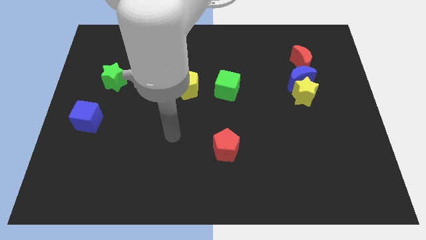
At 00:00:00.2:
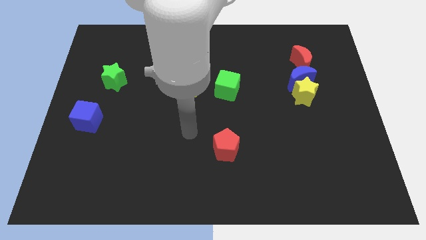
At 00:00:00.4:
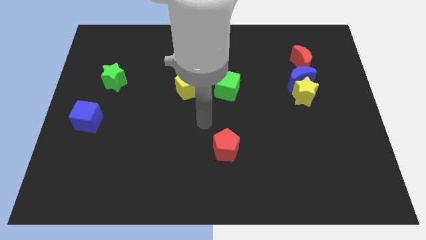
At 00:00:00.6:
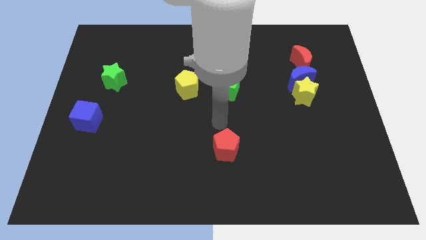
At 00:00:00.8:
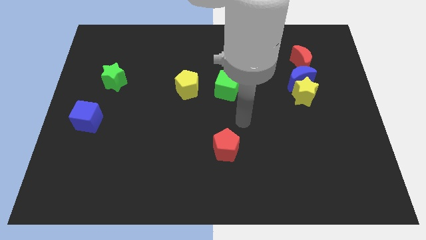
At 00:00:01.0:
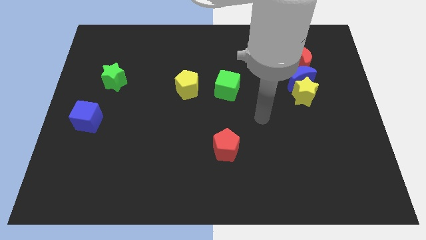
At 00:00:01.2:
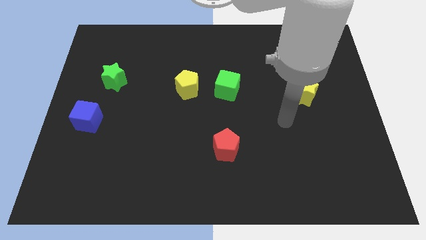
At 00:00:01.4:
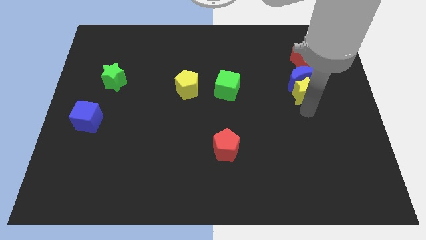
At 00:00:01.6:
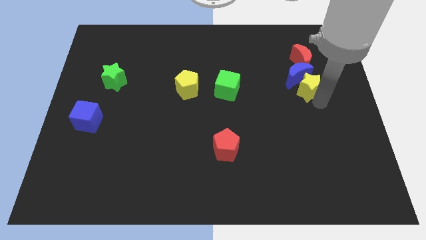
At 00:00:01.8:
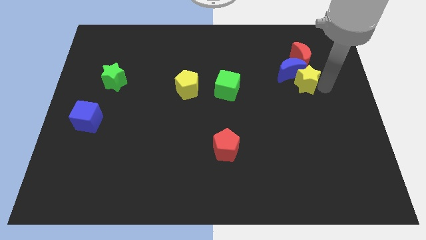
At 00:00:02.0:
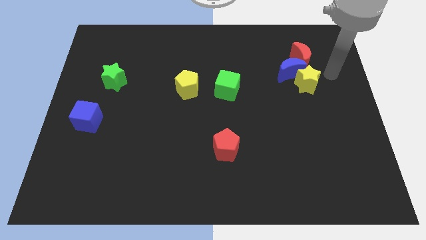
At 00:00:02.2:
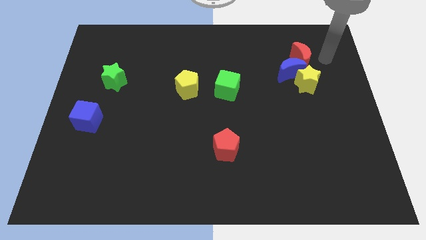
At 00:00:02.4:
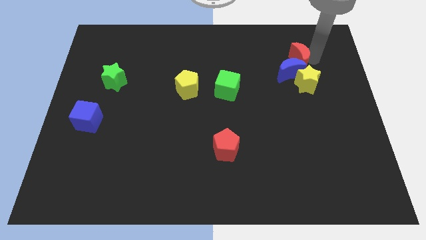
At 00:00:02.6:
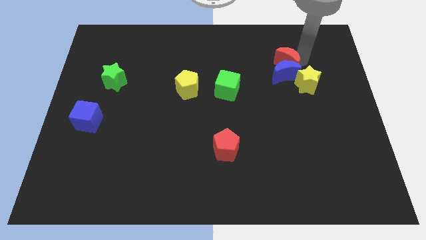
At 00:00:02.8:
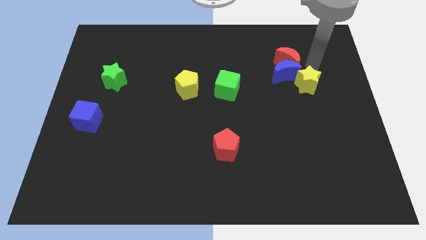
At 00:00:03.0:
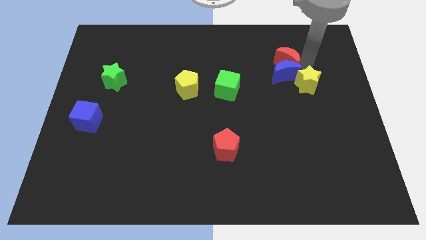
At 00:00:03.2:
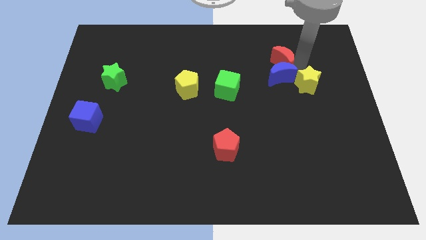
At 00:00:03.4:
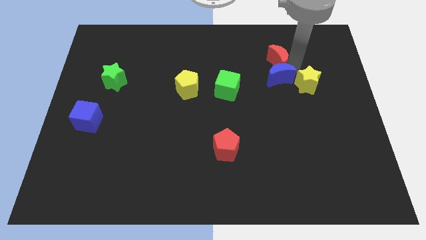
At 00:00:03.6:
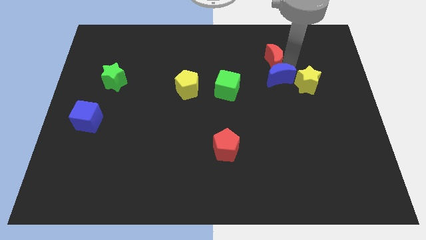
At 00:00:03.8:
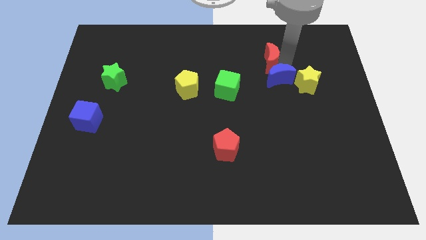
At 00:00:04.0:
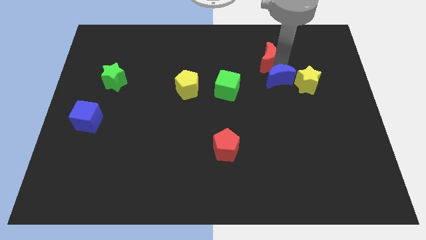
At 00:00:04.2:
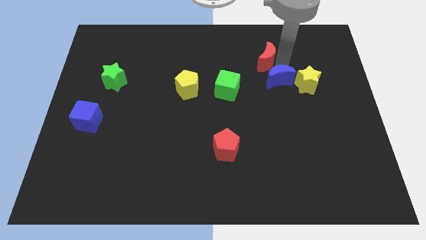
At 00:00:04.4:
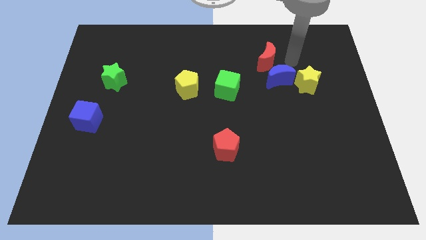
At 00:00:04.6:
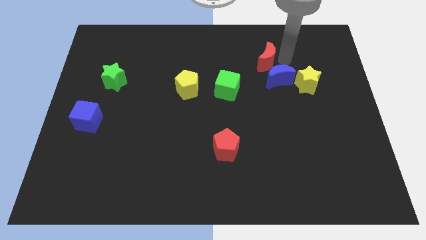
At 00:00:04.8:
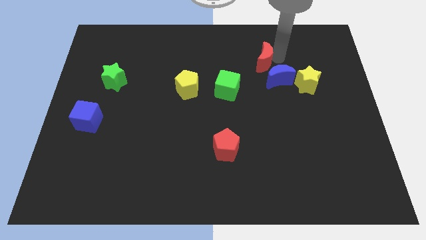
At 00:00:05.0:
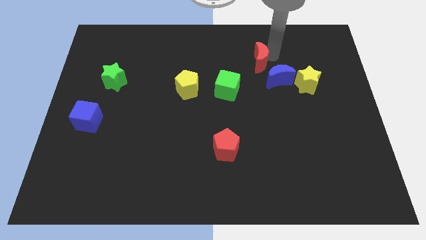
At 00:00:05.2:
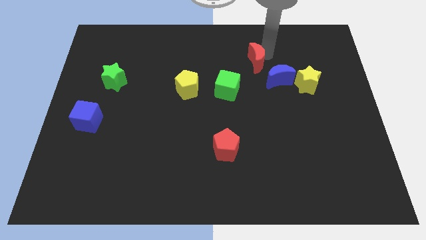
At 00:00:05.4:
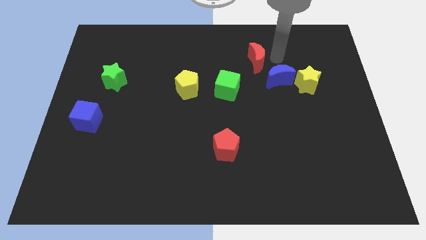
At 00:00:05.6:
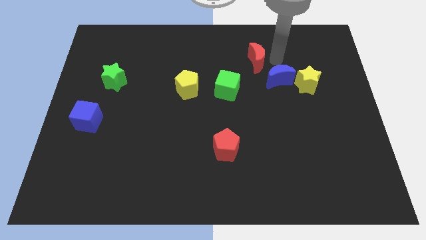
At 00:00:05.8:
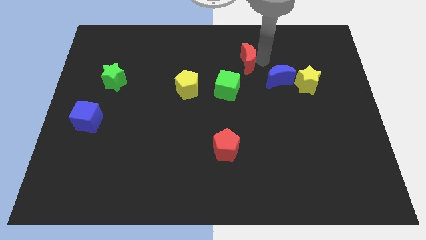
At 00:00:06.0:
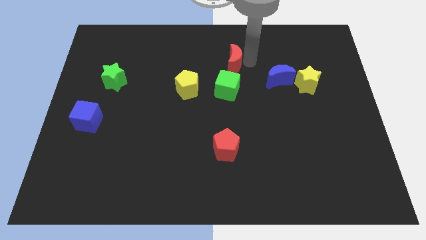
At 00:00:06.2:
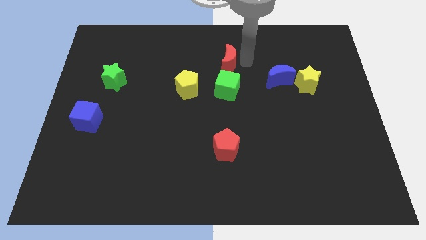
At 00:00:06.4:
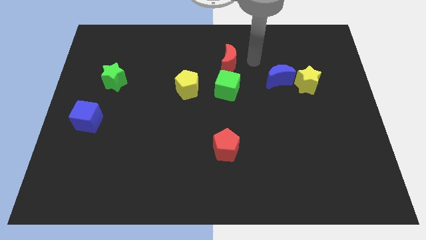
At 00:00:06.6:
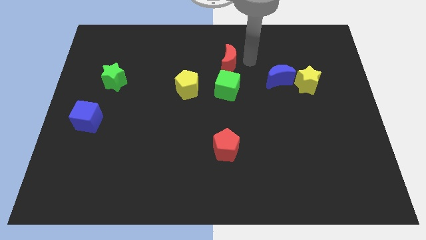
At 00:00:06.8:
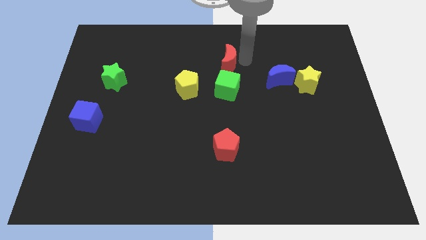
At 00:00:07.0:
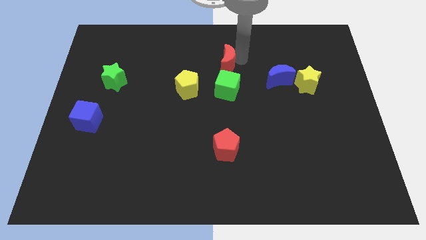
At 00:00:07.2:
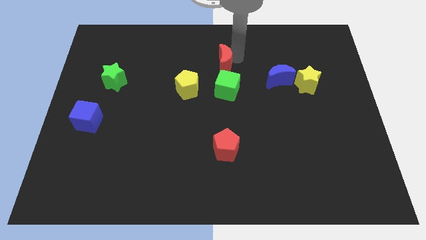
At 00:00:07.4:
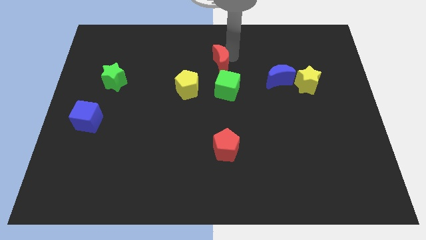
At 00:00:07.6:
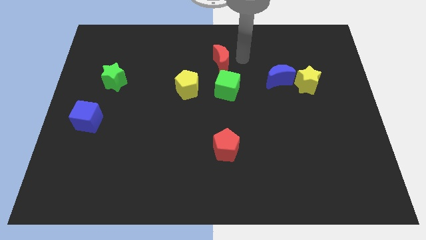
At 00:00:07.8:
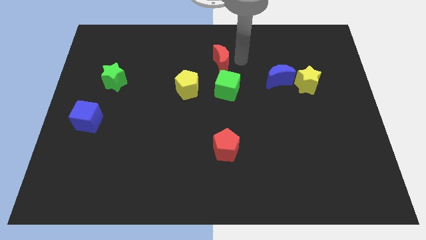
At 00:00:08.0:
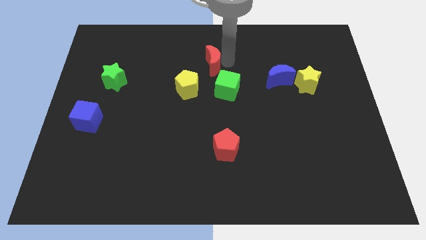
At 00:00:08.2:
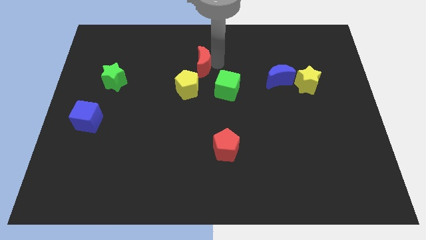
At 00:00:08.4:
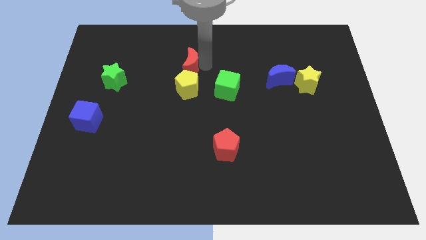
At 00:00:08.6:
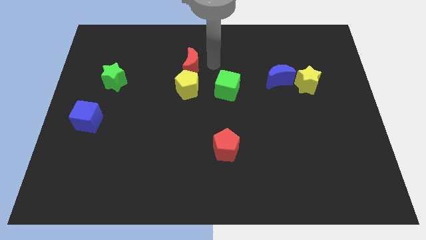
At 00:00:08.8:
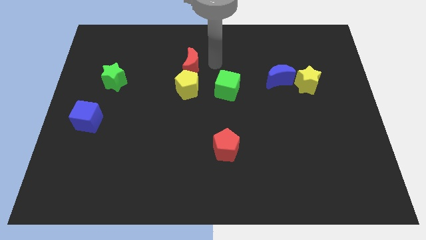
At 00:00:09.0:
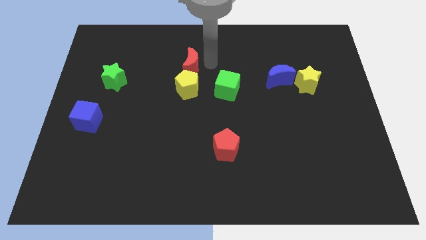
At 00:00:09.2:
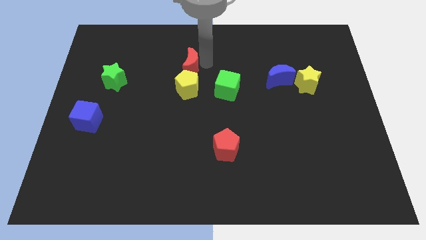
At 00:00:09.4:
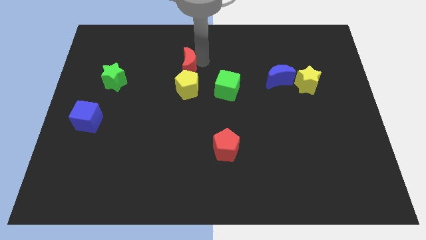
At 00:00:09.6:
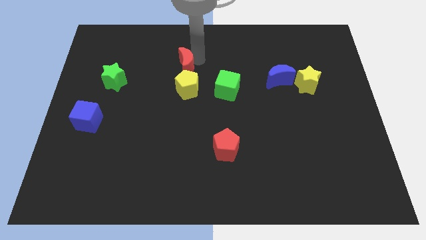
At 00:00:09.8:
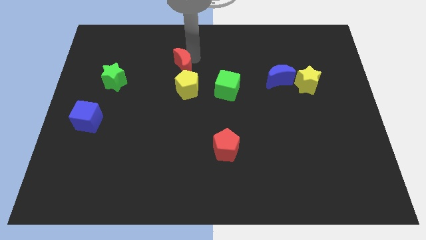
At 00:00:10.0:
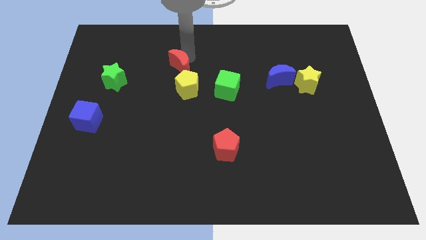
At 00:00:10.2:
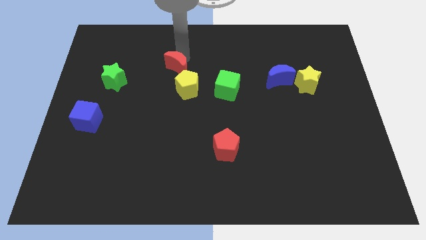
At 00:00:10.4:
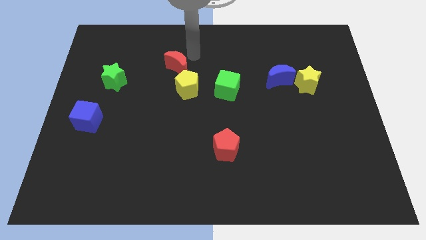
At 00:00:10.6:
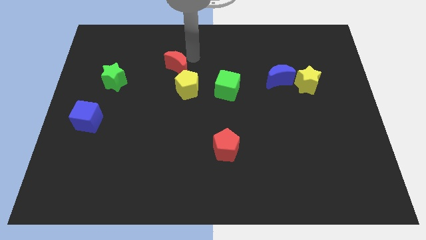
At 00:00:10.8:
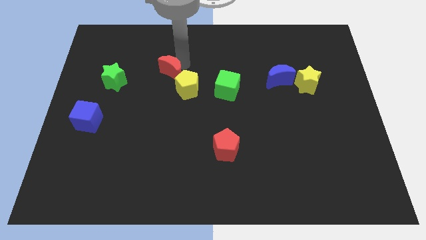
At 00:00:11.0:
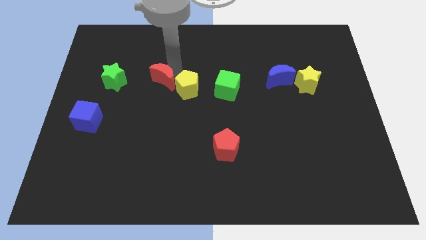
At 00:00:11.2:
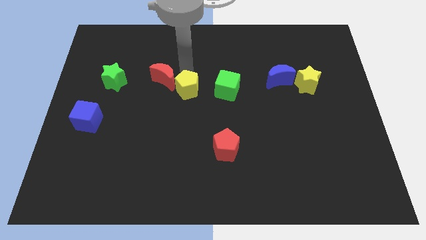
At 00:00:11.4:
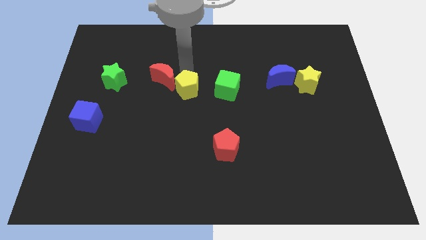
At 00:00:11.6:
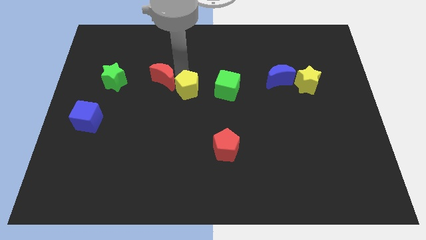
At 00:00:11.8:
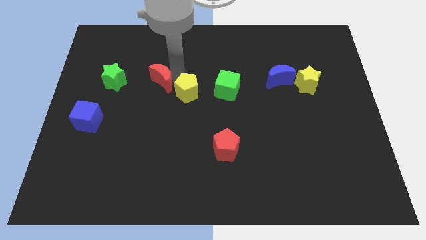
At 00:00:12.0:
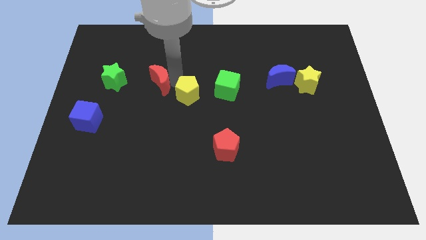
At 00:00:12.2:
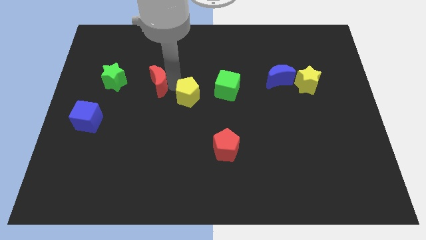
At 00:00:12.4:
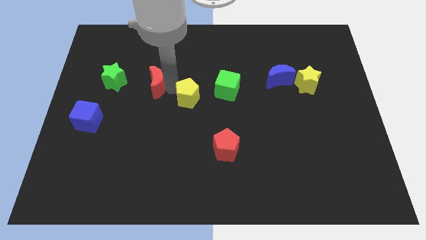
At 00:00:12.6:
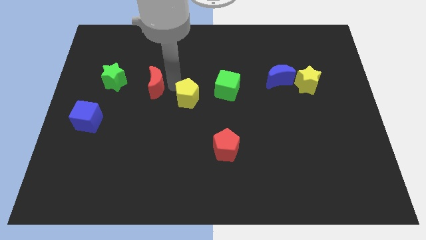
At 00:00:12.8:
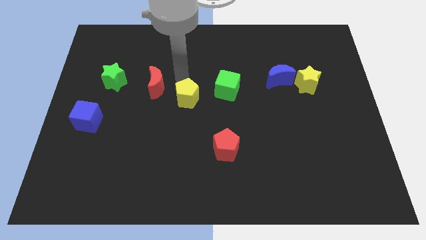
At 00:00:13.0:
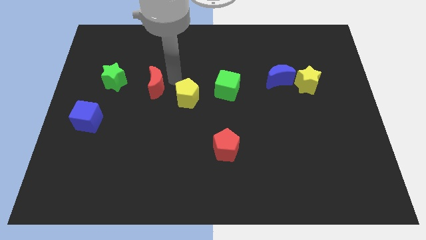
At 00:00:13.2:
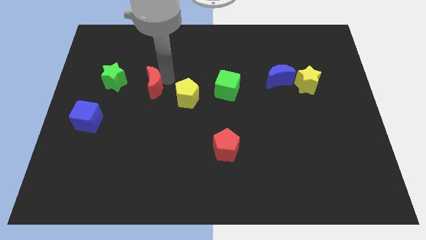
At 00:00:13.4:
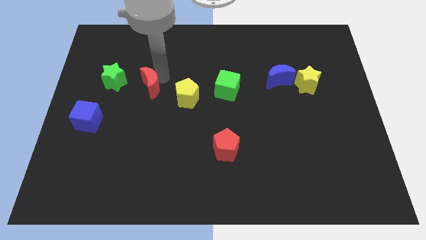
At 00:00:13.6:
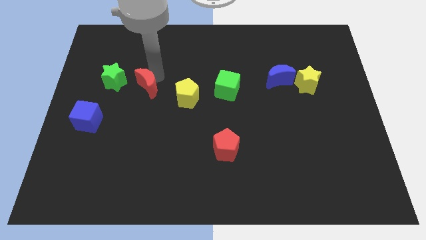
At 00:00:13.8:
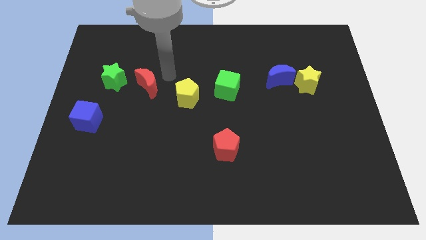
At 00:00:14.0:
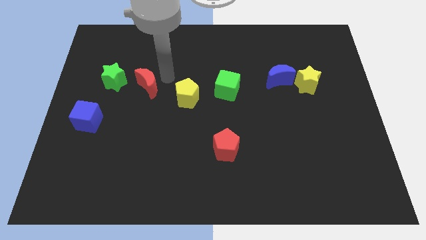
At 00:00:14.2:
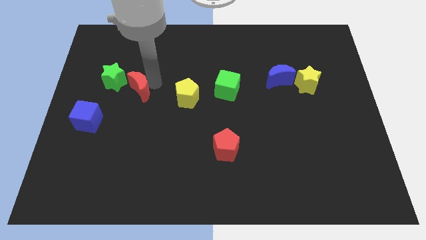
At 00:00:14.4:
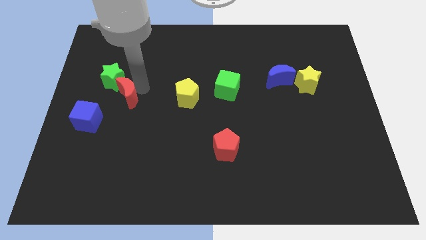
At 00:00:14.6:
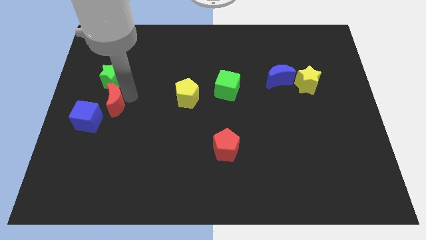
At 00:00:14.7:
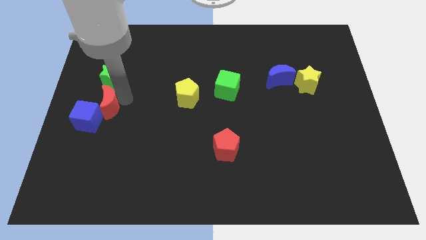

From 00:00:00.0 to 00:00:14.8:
put the red moon close to the blue cube

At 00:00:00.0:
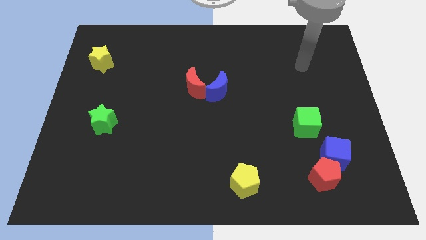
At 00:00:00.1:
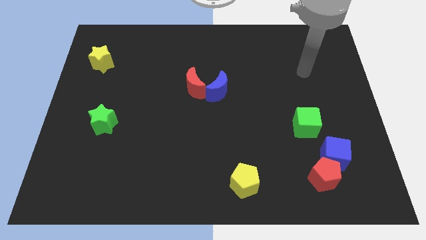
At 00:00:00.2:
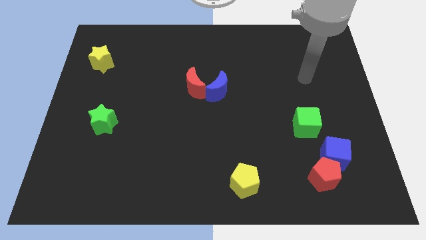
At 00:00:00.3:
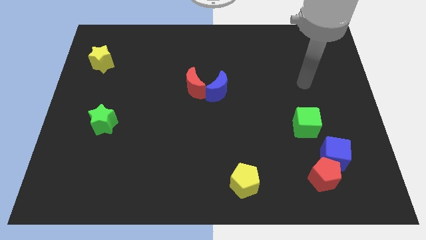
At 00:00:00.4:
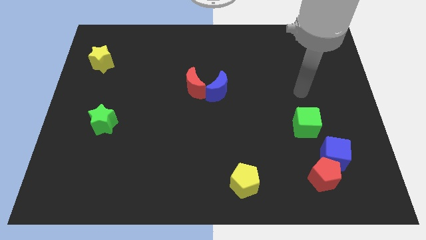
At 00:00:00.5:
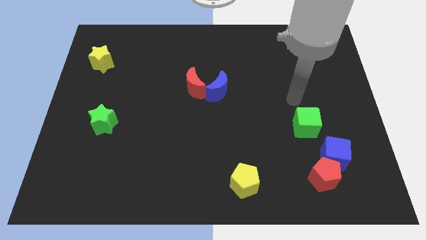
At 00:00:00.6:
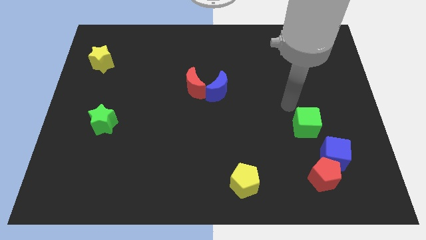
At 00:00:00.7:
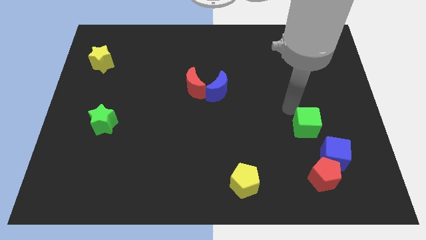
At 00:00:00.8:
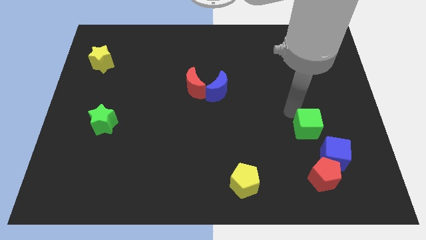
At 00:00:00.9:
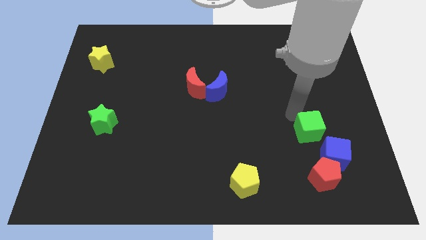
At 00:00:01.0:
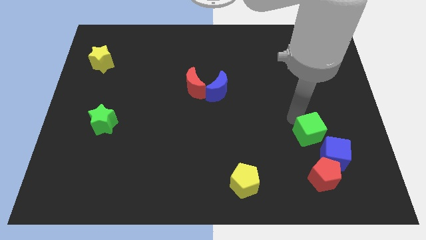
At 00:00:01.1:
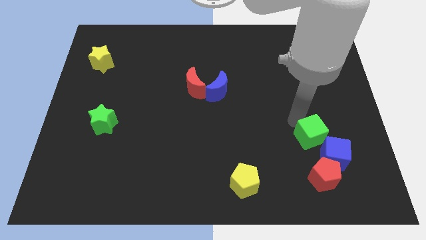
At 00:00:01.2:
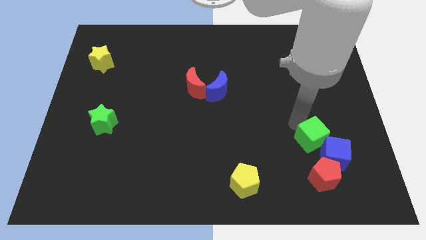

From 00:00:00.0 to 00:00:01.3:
move the green cube towards the blue cube
